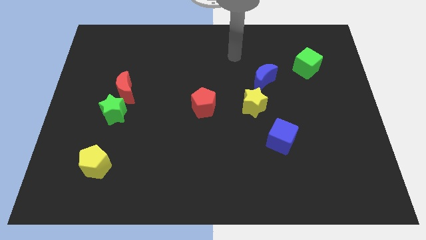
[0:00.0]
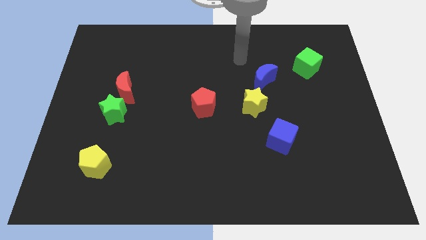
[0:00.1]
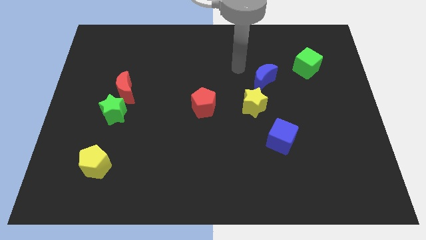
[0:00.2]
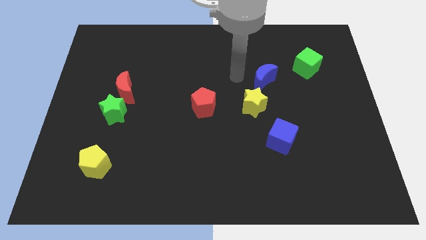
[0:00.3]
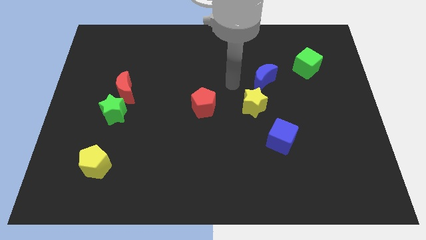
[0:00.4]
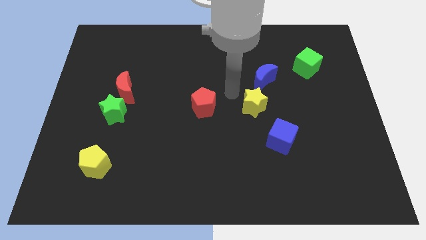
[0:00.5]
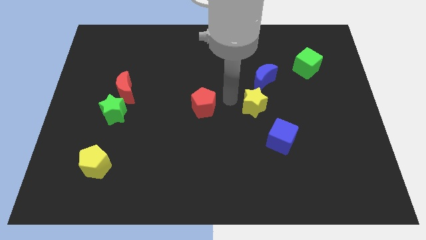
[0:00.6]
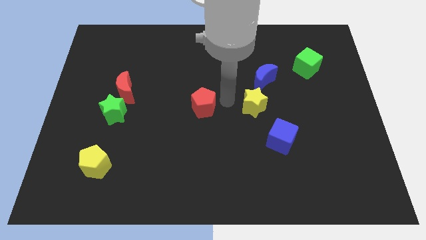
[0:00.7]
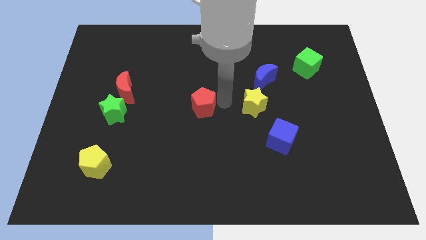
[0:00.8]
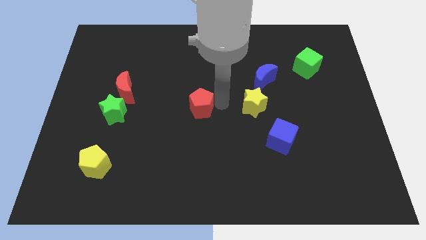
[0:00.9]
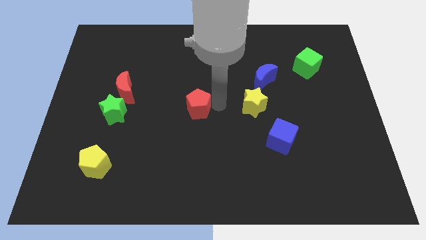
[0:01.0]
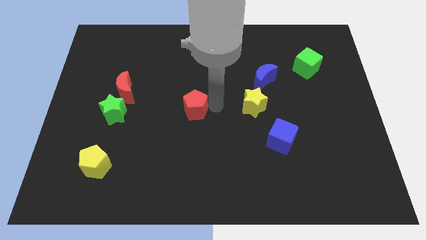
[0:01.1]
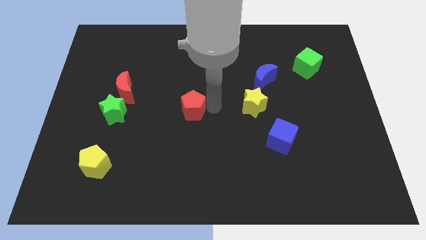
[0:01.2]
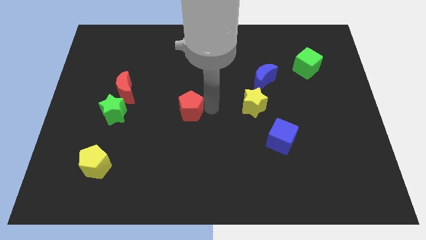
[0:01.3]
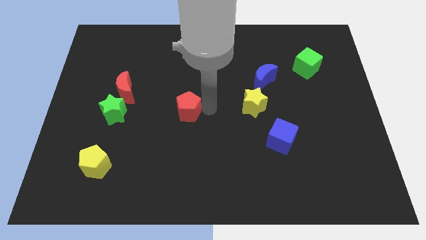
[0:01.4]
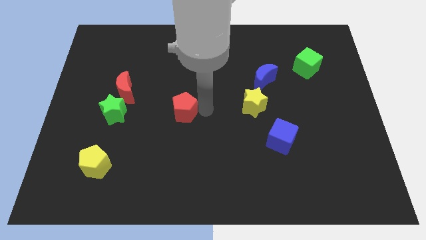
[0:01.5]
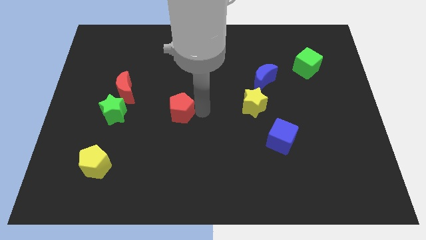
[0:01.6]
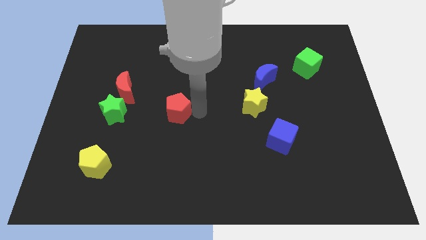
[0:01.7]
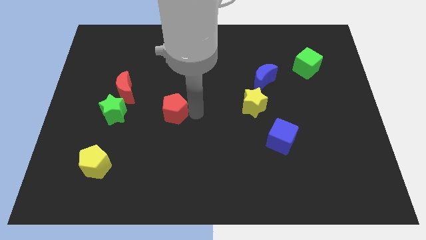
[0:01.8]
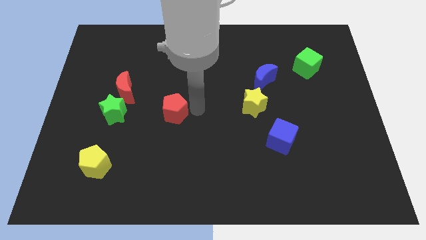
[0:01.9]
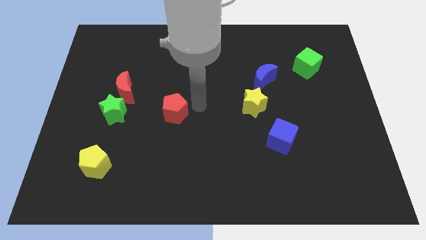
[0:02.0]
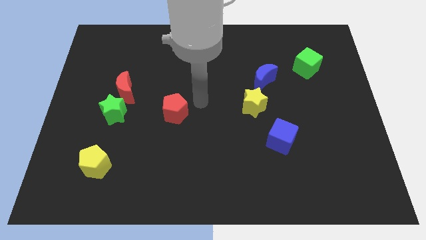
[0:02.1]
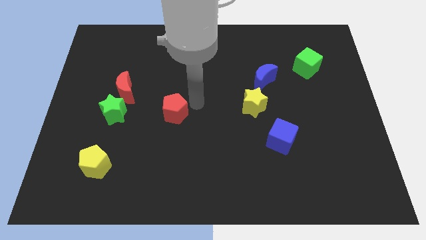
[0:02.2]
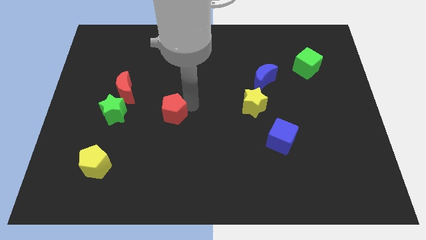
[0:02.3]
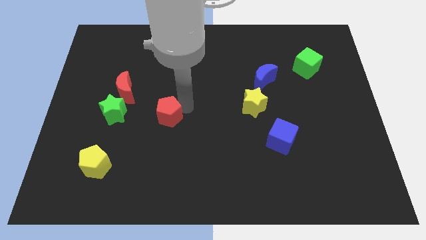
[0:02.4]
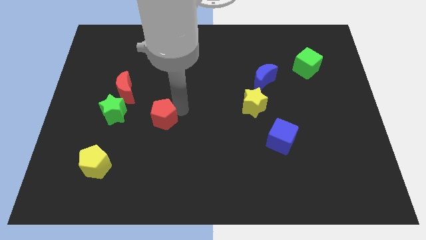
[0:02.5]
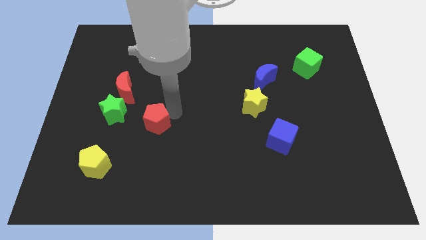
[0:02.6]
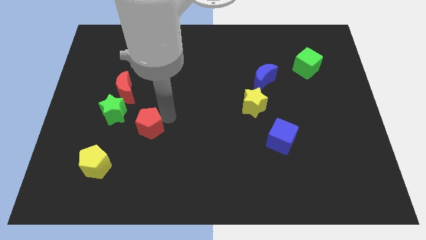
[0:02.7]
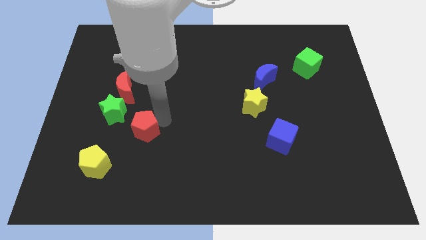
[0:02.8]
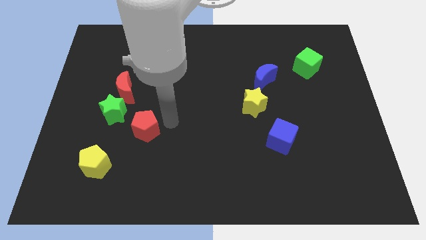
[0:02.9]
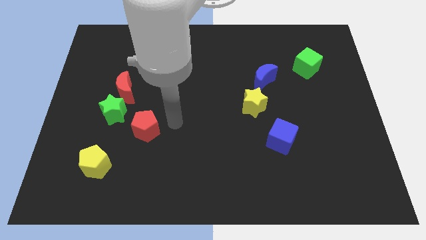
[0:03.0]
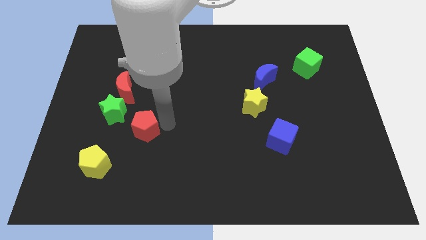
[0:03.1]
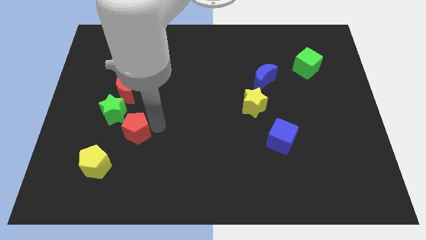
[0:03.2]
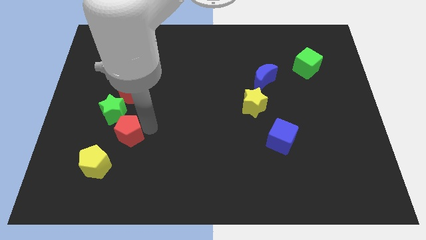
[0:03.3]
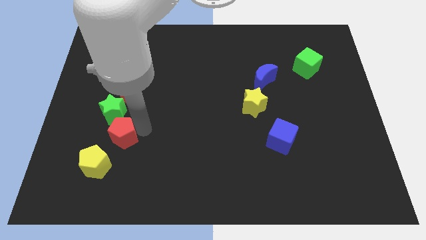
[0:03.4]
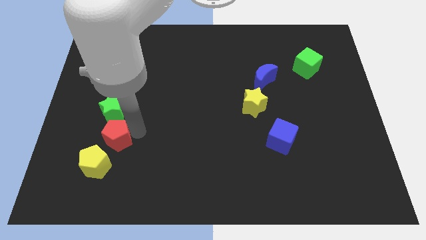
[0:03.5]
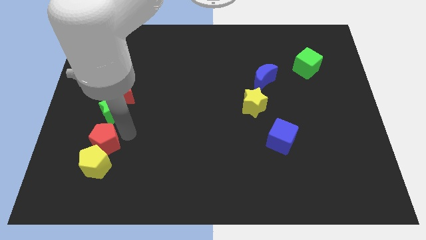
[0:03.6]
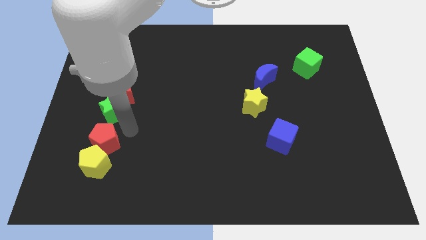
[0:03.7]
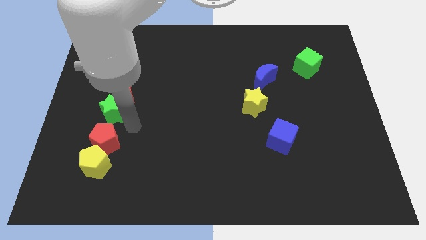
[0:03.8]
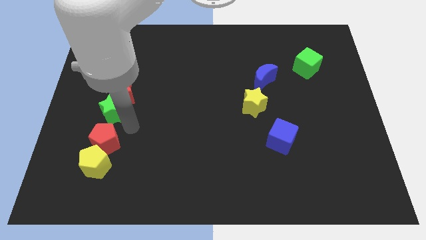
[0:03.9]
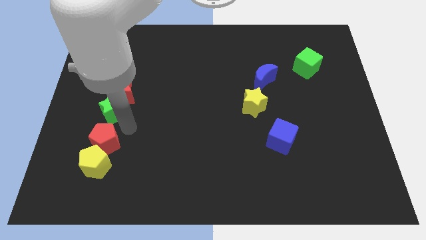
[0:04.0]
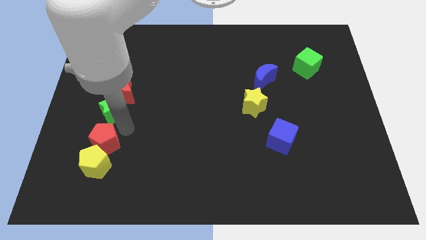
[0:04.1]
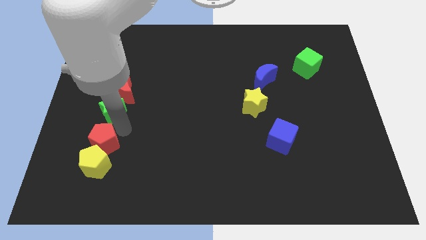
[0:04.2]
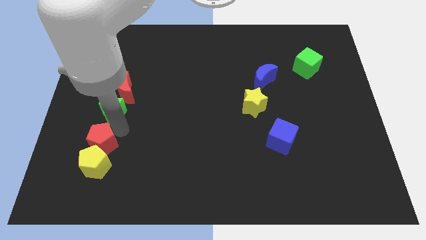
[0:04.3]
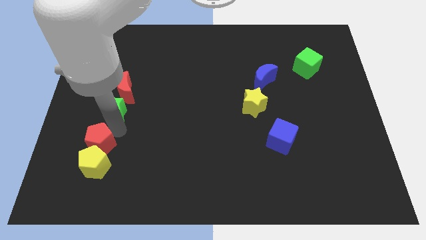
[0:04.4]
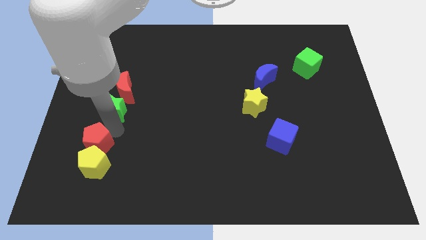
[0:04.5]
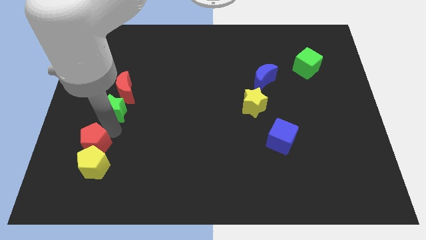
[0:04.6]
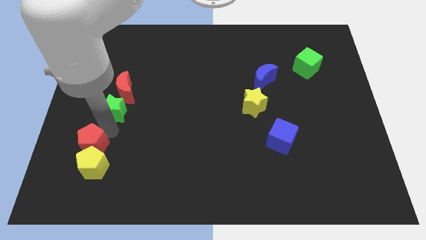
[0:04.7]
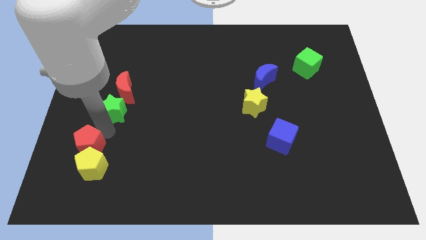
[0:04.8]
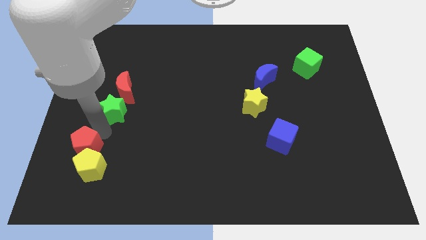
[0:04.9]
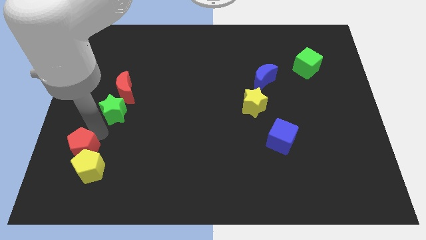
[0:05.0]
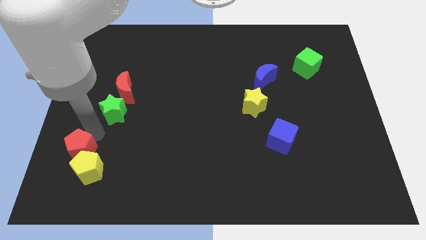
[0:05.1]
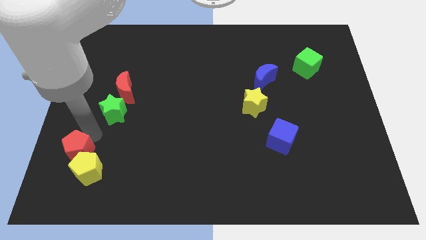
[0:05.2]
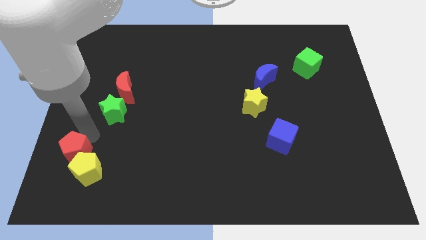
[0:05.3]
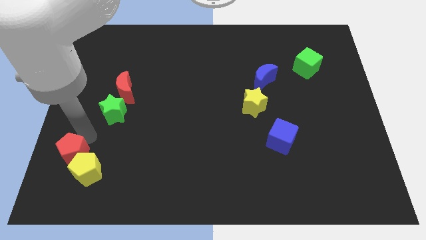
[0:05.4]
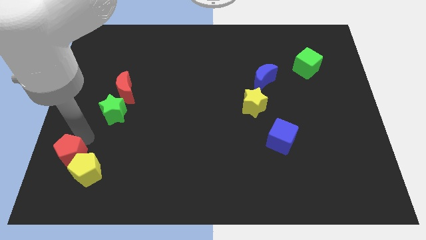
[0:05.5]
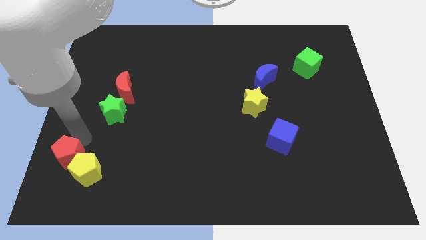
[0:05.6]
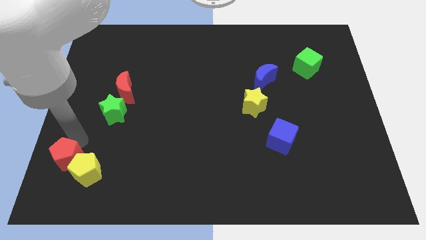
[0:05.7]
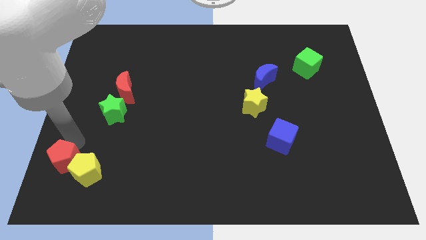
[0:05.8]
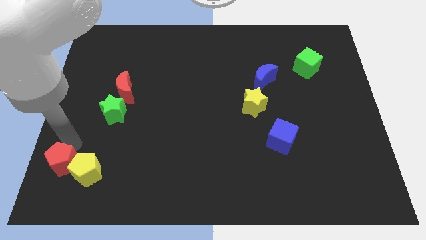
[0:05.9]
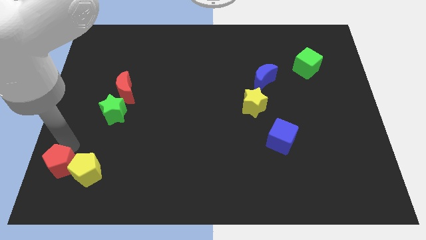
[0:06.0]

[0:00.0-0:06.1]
push the red pentagon to the bottom left corner

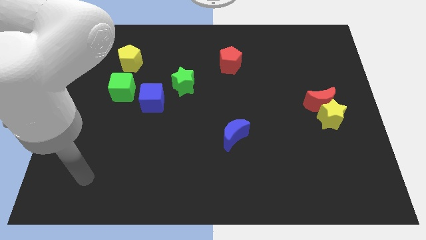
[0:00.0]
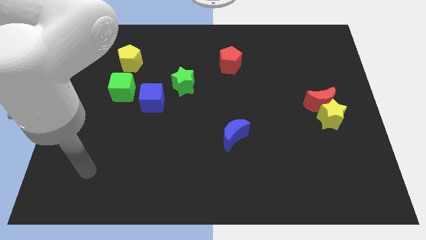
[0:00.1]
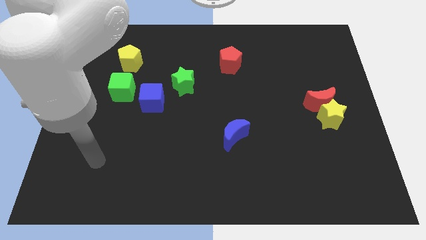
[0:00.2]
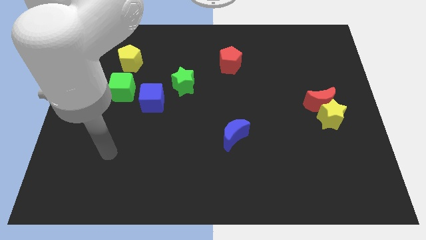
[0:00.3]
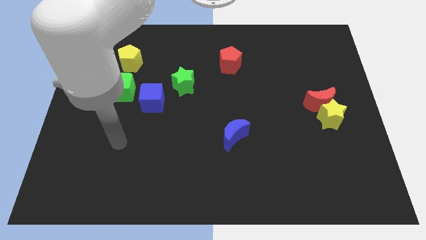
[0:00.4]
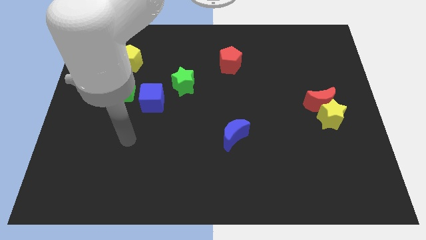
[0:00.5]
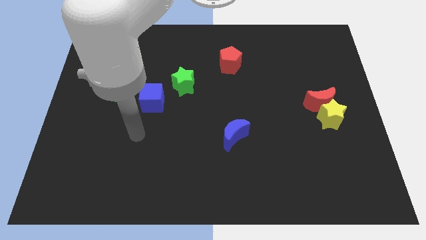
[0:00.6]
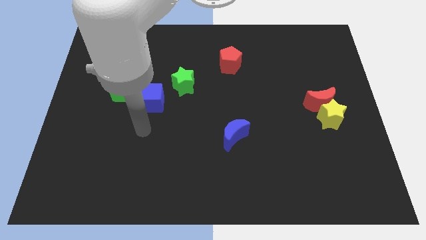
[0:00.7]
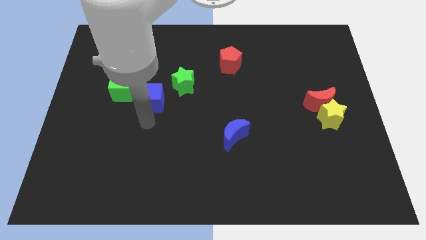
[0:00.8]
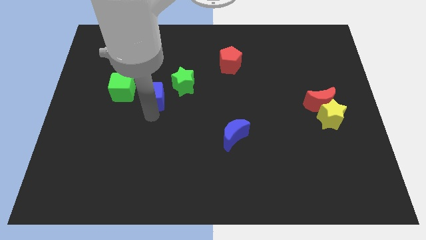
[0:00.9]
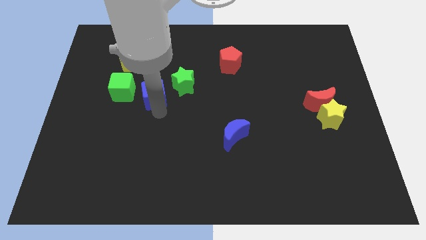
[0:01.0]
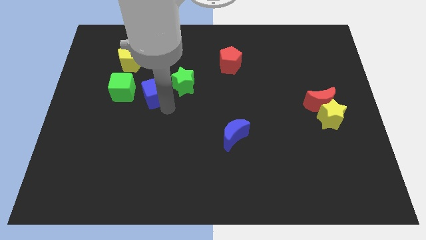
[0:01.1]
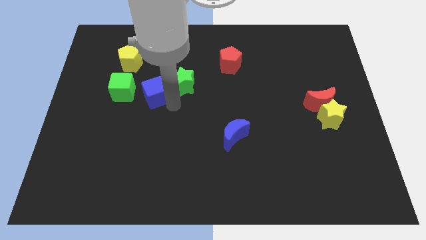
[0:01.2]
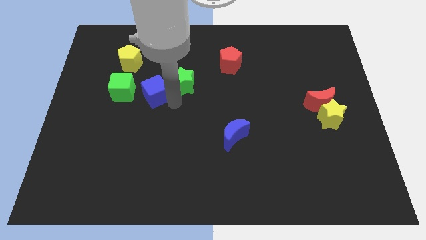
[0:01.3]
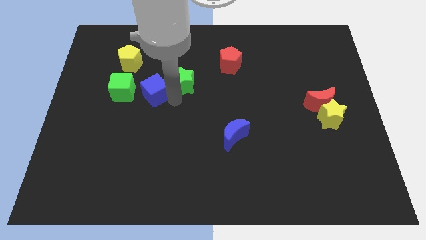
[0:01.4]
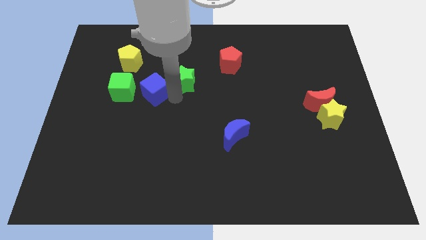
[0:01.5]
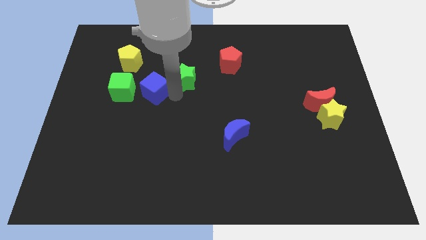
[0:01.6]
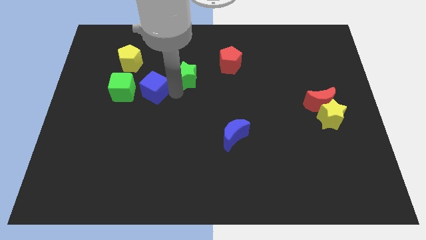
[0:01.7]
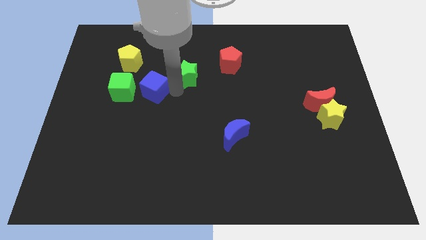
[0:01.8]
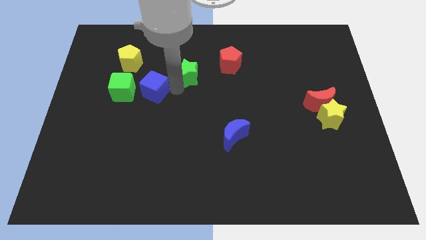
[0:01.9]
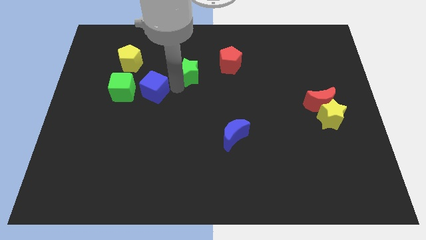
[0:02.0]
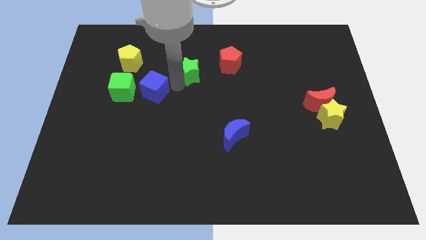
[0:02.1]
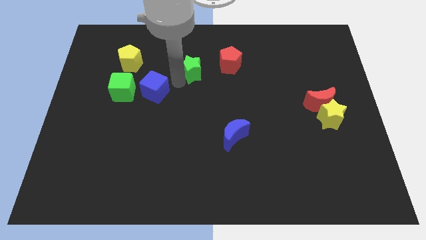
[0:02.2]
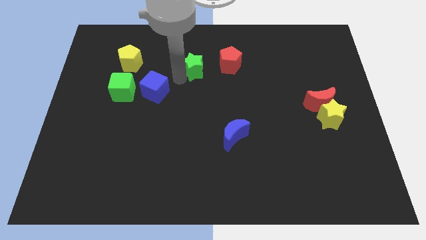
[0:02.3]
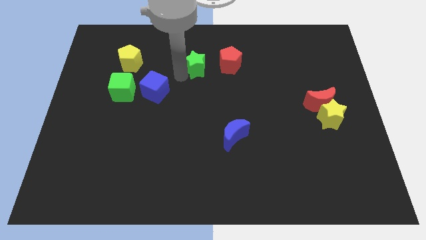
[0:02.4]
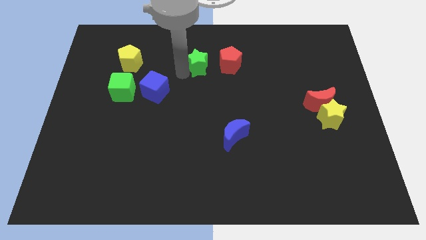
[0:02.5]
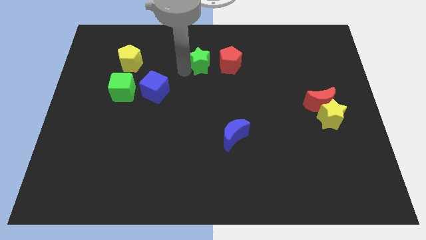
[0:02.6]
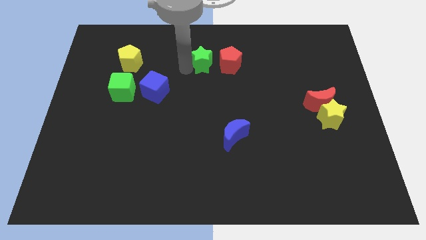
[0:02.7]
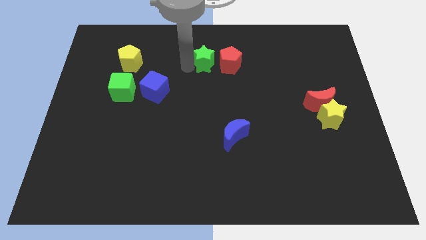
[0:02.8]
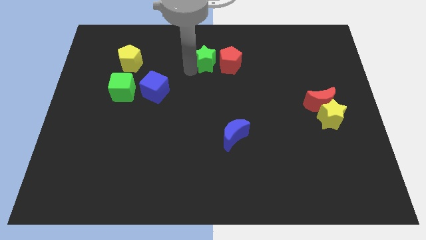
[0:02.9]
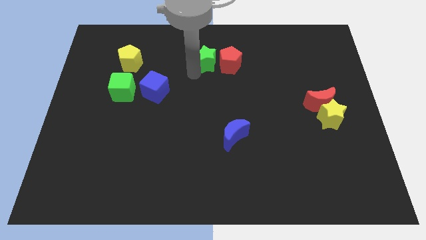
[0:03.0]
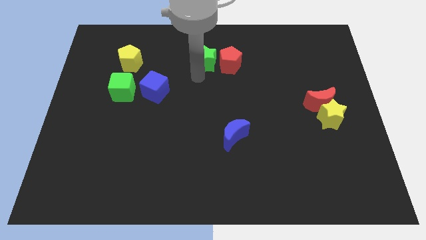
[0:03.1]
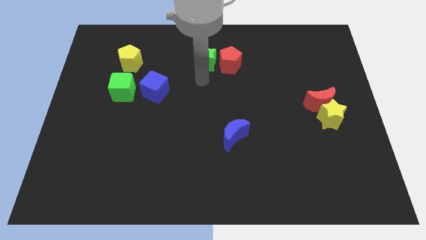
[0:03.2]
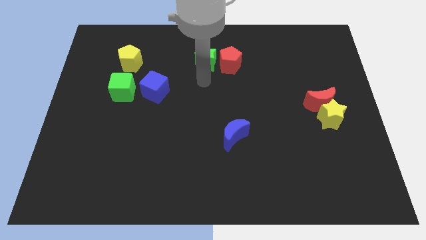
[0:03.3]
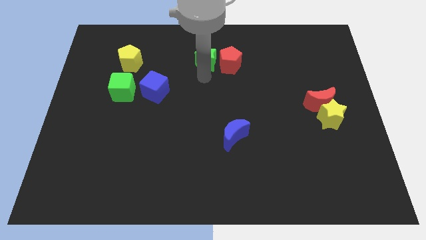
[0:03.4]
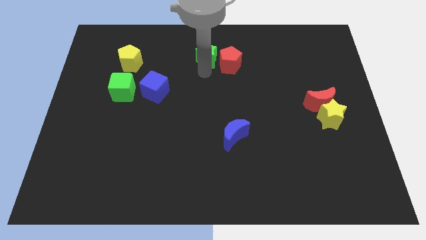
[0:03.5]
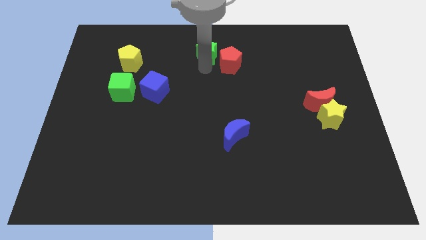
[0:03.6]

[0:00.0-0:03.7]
push the green star to the top side
